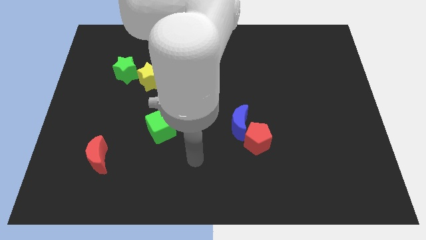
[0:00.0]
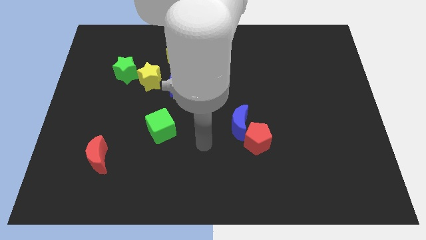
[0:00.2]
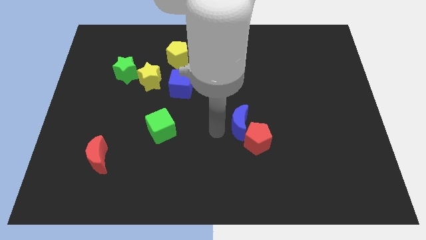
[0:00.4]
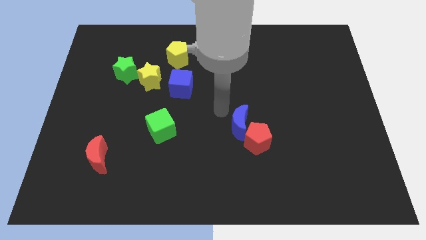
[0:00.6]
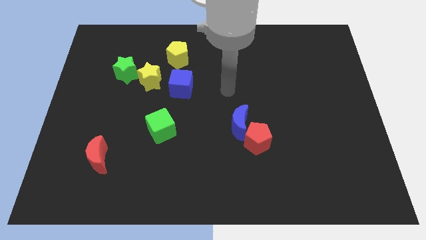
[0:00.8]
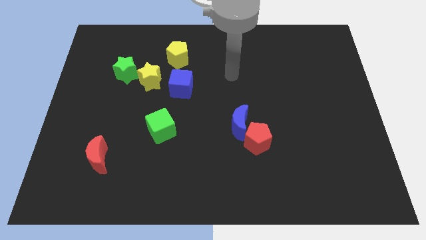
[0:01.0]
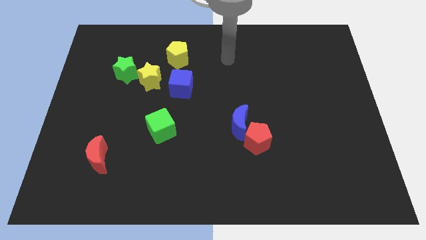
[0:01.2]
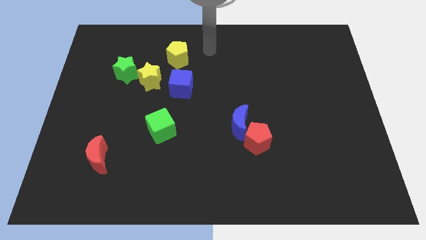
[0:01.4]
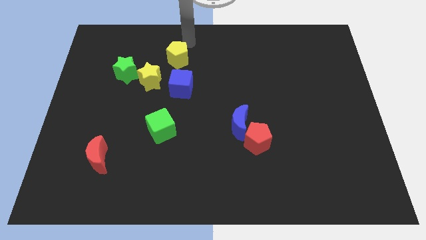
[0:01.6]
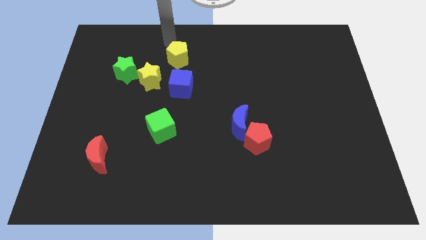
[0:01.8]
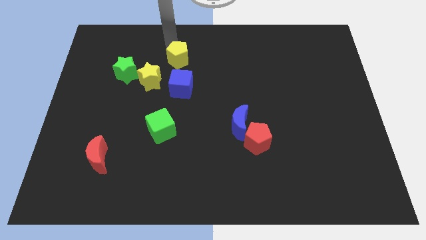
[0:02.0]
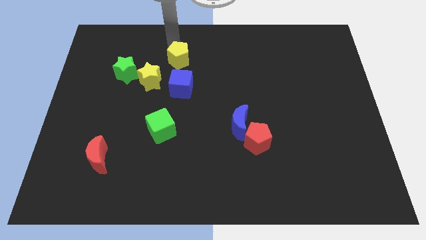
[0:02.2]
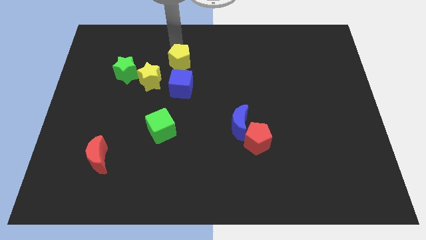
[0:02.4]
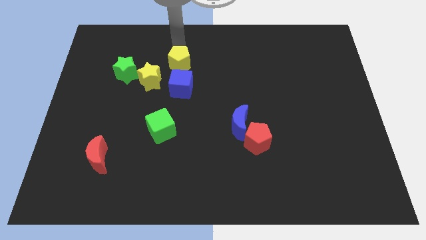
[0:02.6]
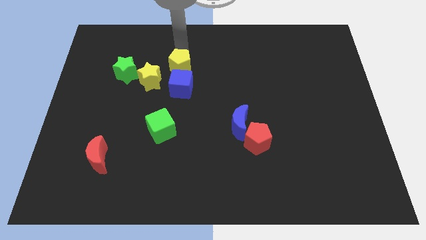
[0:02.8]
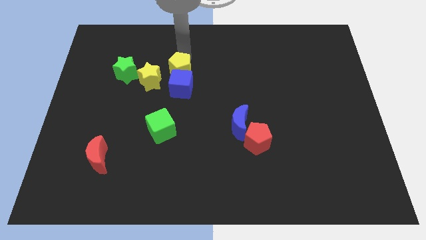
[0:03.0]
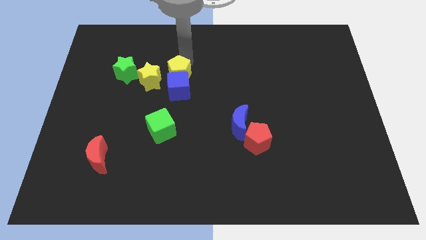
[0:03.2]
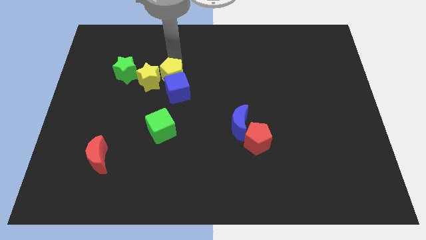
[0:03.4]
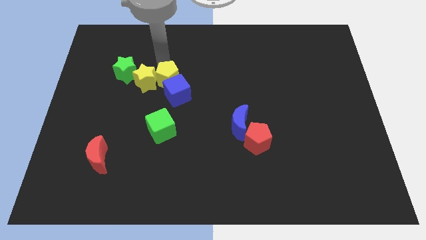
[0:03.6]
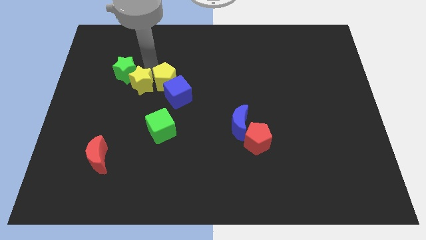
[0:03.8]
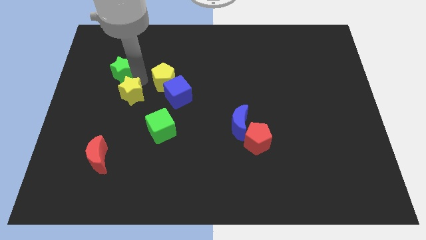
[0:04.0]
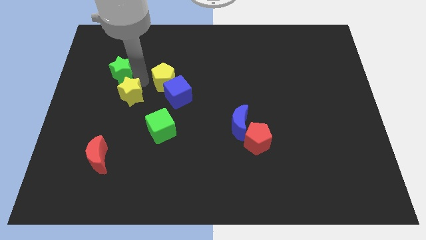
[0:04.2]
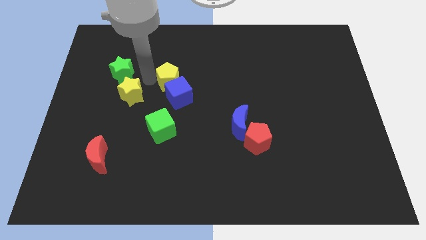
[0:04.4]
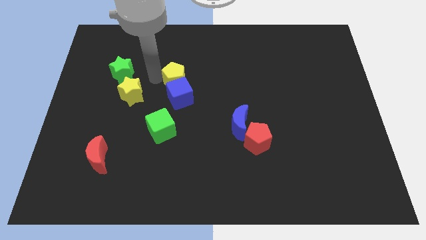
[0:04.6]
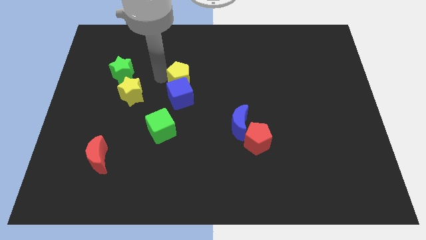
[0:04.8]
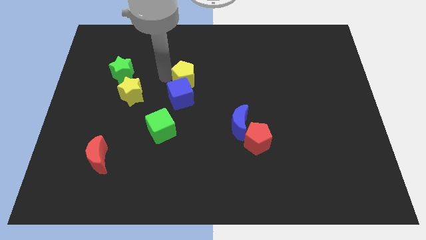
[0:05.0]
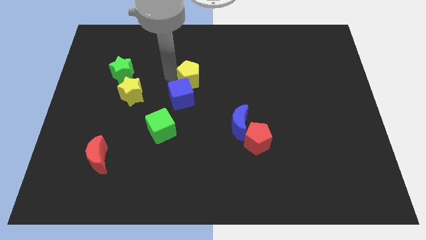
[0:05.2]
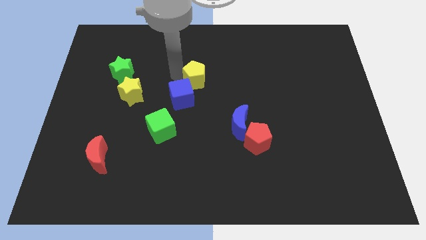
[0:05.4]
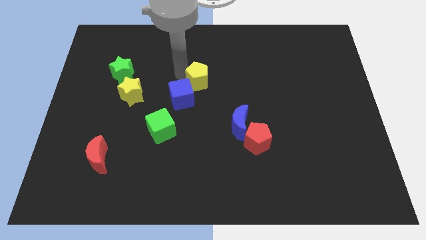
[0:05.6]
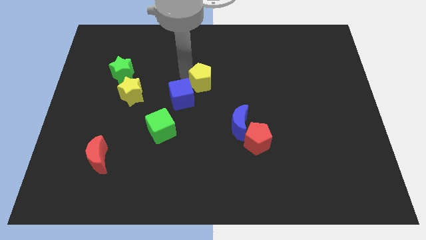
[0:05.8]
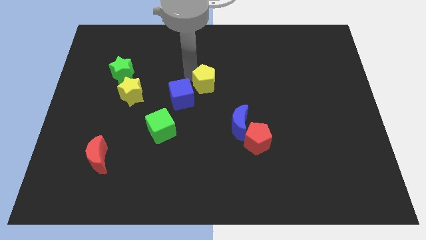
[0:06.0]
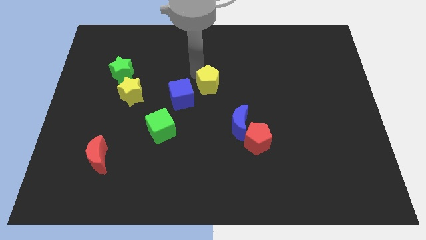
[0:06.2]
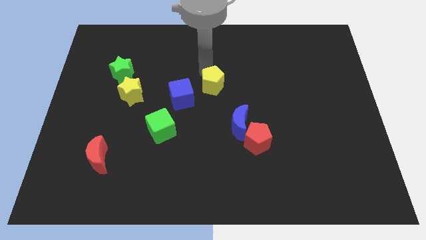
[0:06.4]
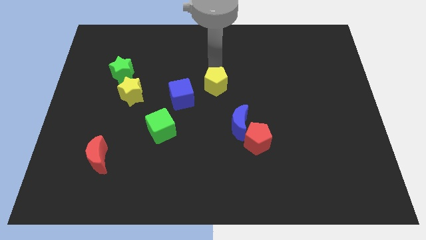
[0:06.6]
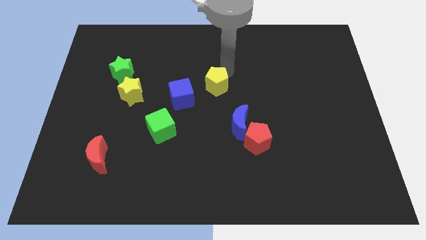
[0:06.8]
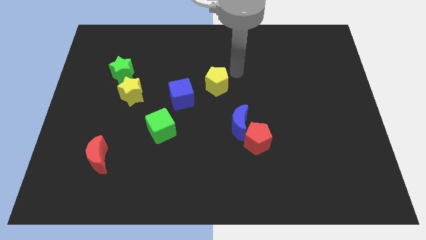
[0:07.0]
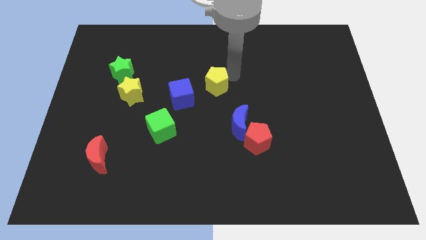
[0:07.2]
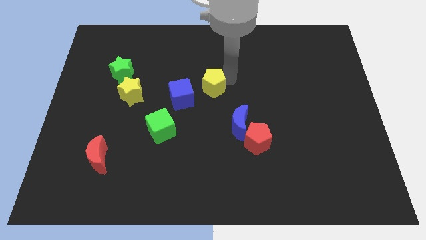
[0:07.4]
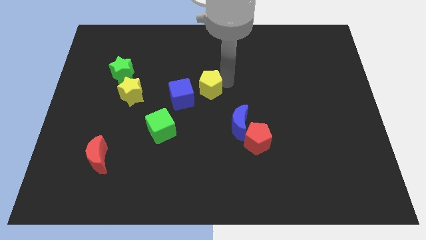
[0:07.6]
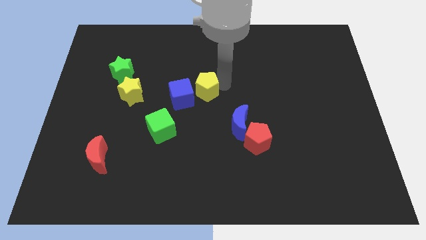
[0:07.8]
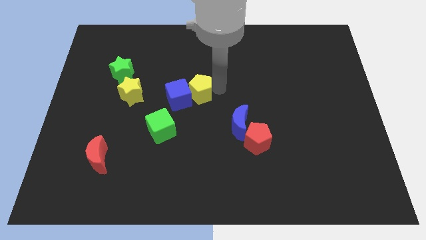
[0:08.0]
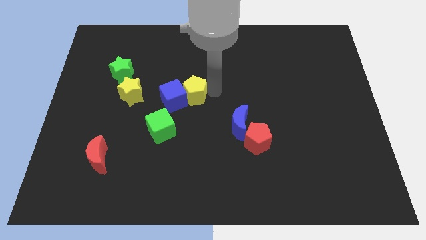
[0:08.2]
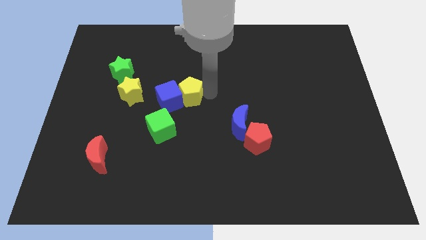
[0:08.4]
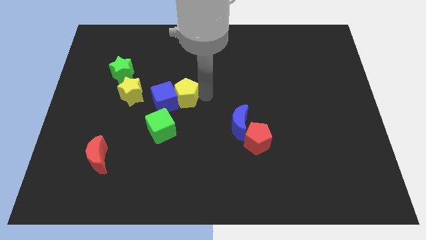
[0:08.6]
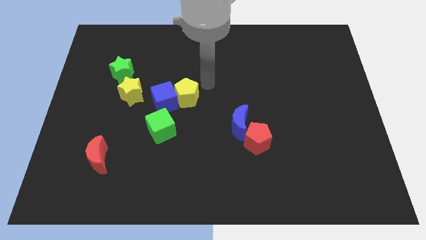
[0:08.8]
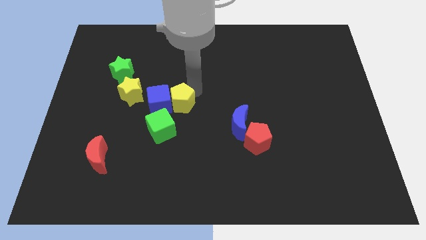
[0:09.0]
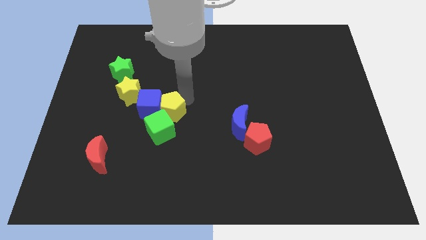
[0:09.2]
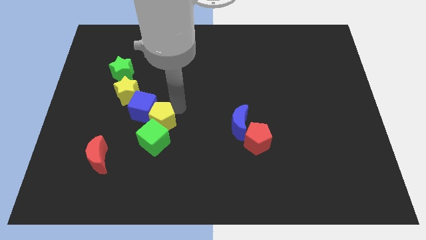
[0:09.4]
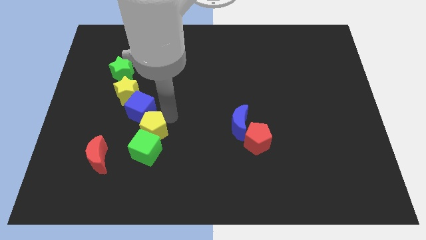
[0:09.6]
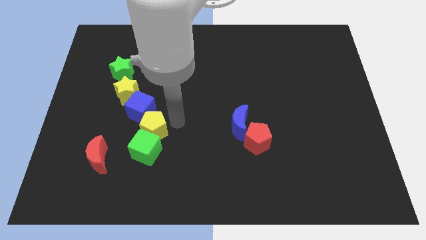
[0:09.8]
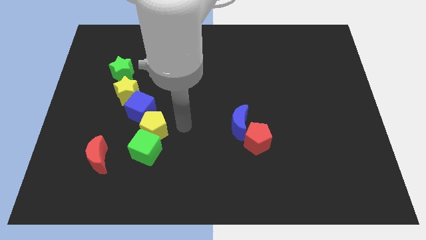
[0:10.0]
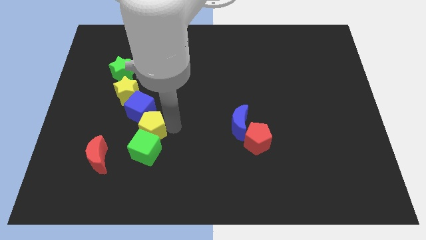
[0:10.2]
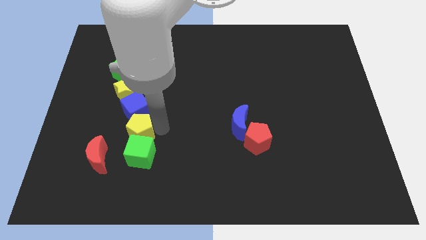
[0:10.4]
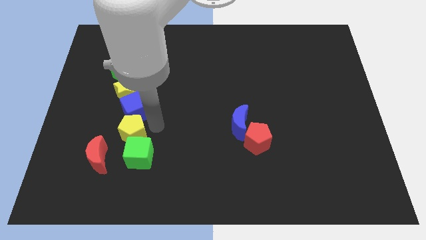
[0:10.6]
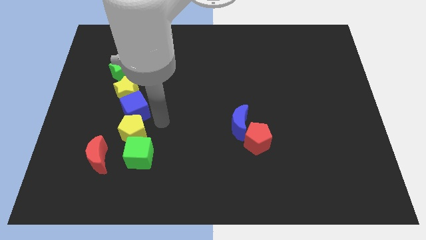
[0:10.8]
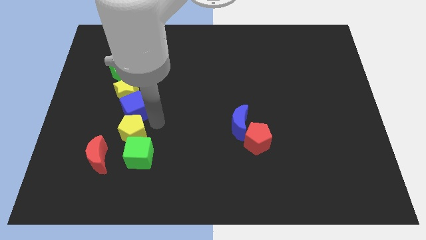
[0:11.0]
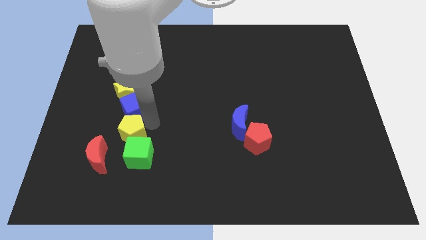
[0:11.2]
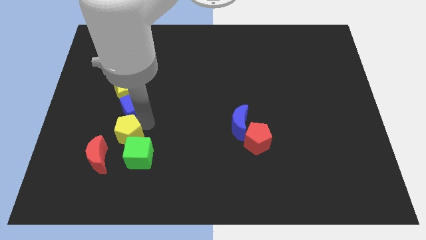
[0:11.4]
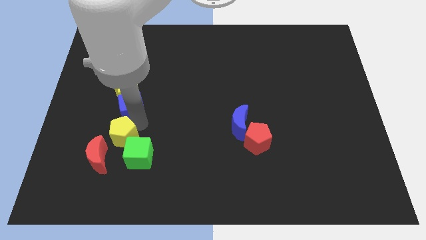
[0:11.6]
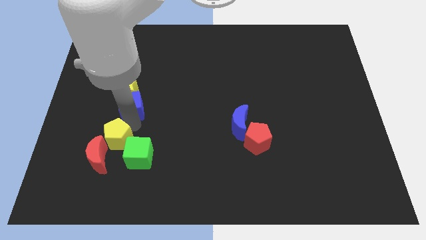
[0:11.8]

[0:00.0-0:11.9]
slide the yellow pentagon towards the red moon

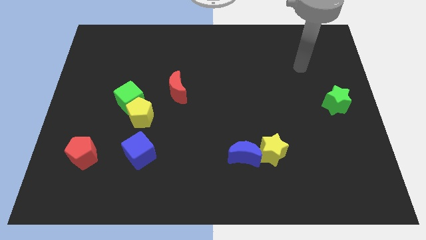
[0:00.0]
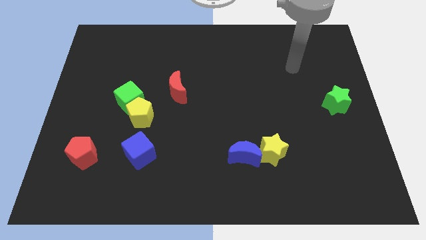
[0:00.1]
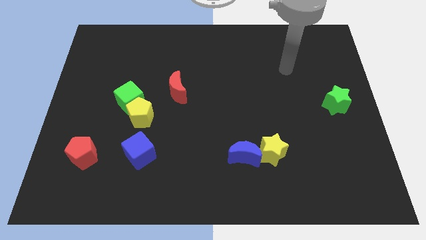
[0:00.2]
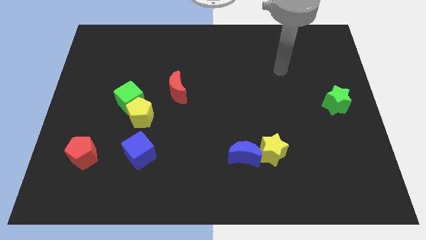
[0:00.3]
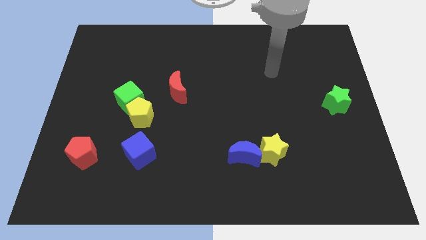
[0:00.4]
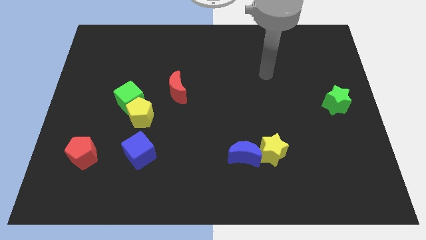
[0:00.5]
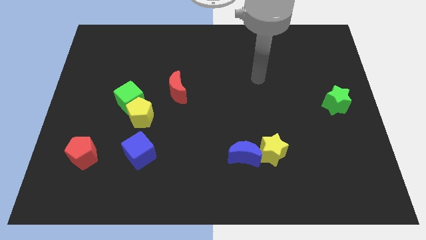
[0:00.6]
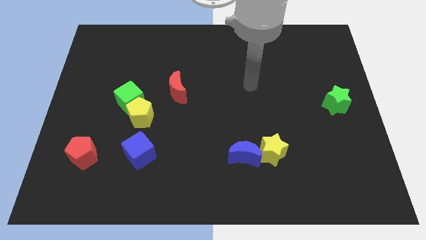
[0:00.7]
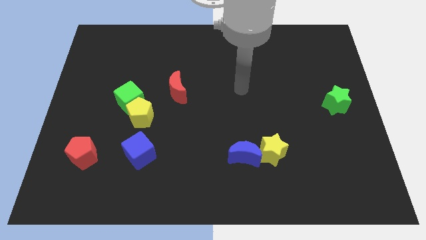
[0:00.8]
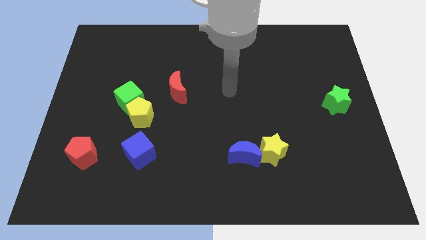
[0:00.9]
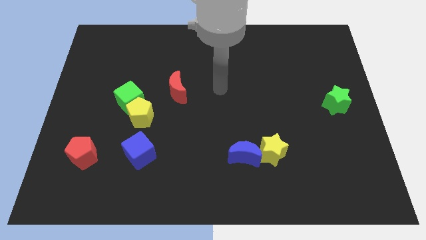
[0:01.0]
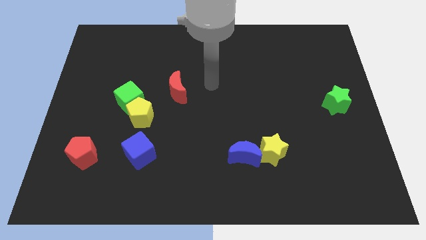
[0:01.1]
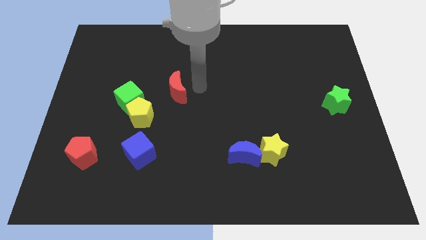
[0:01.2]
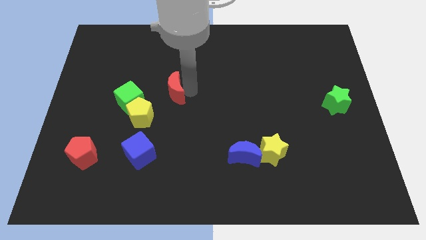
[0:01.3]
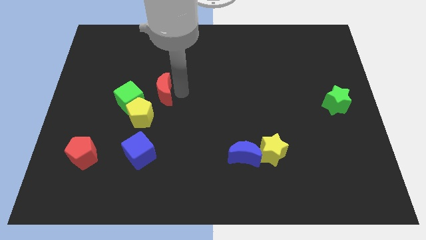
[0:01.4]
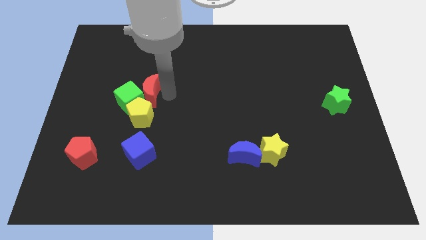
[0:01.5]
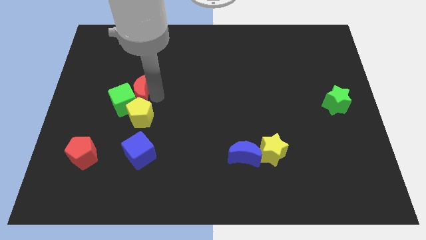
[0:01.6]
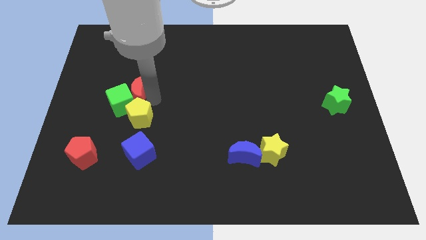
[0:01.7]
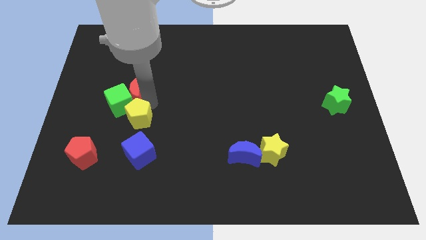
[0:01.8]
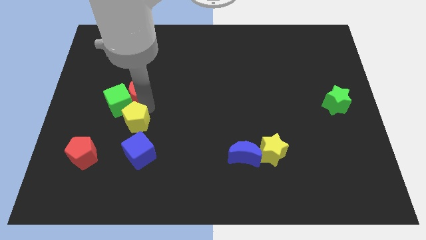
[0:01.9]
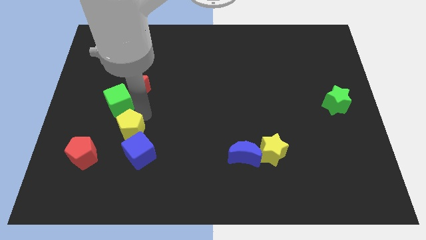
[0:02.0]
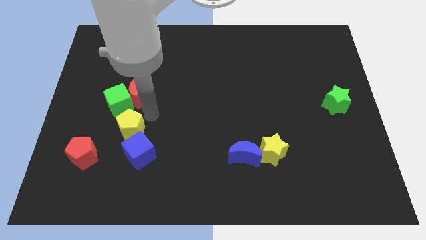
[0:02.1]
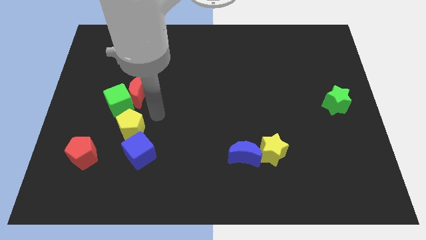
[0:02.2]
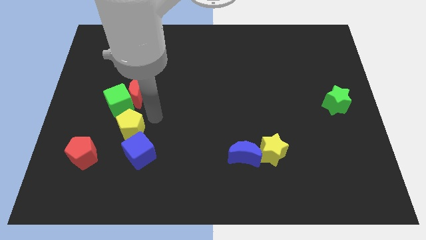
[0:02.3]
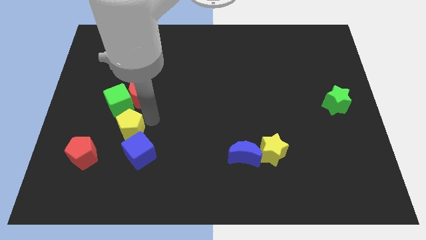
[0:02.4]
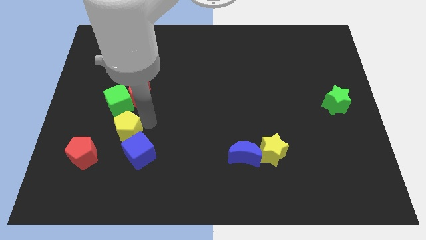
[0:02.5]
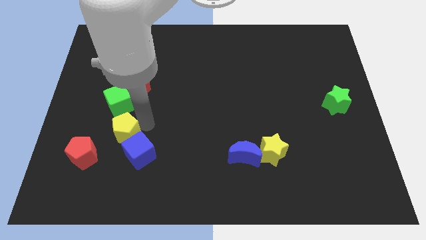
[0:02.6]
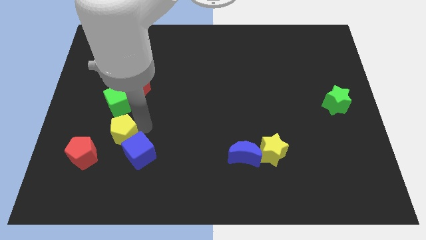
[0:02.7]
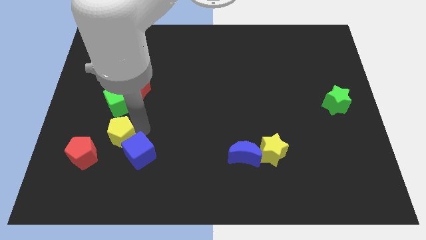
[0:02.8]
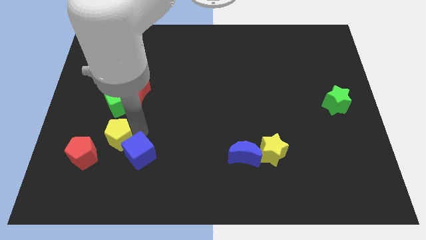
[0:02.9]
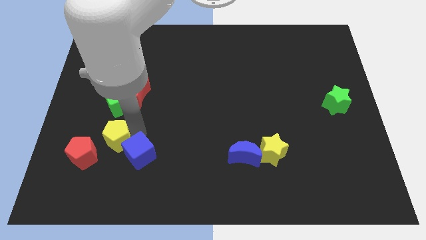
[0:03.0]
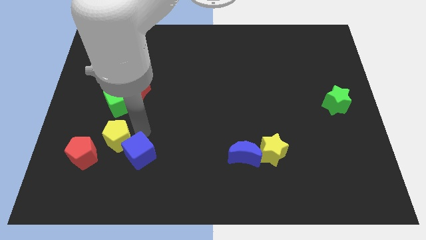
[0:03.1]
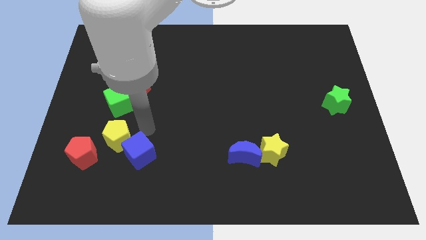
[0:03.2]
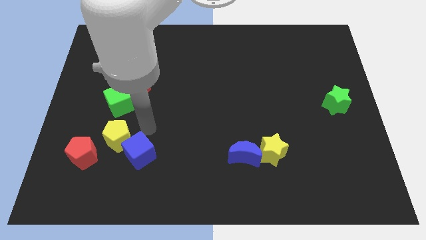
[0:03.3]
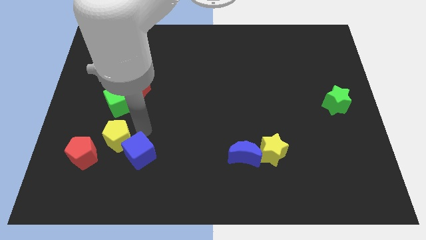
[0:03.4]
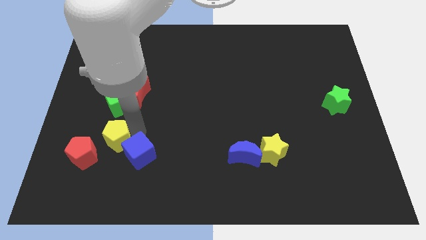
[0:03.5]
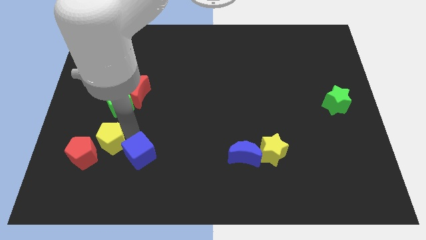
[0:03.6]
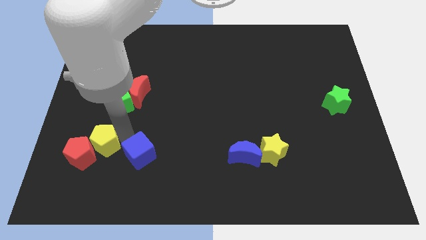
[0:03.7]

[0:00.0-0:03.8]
push the yellow pentagon next to the red pentagon
